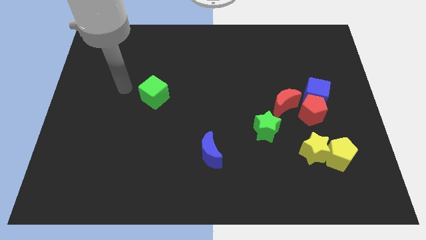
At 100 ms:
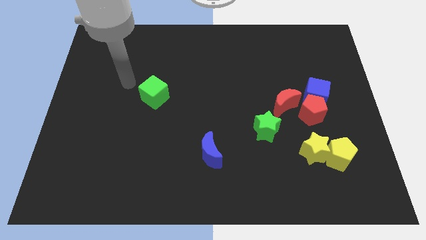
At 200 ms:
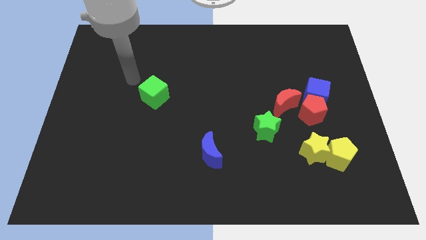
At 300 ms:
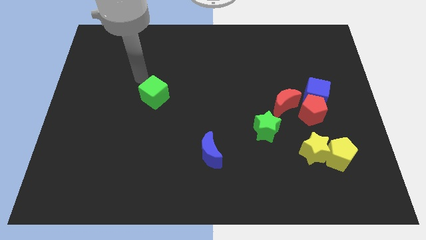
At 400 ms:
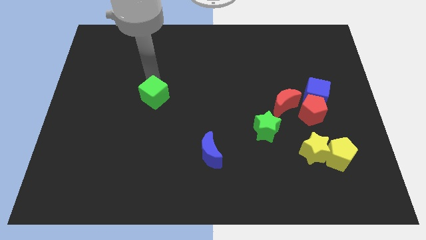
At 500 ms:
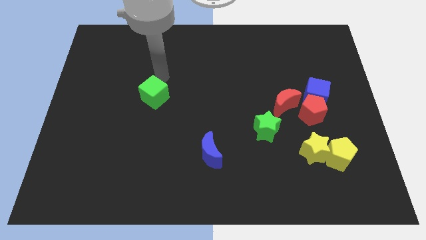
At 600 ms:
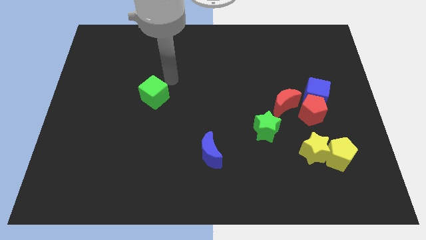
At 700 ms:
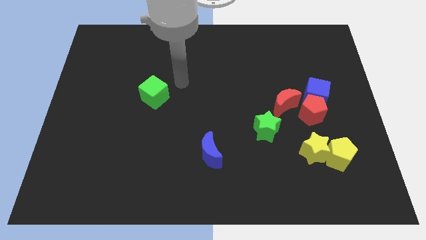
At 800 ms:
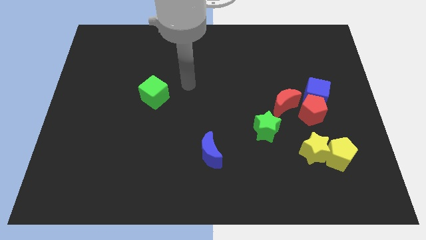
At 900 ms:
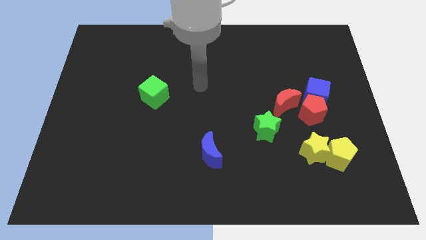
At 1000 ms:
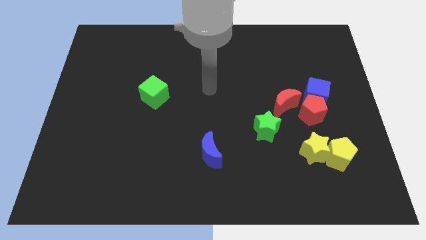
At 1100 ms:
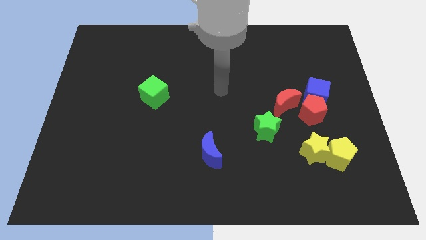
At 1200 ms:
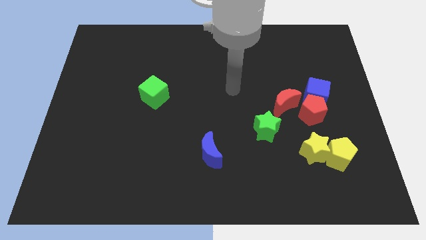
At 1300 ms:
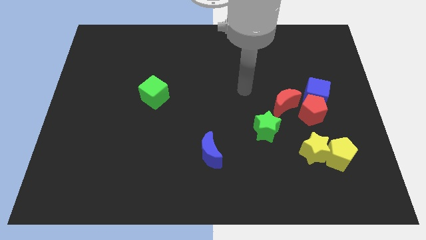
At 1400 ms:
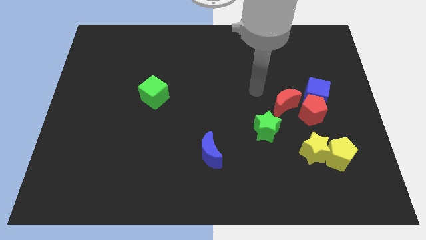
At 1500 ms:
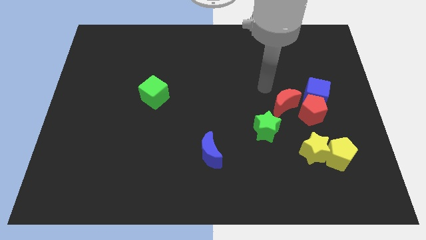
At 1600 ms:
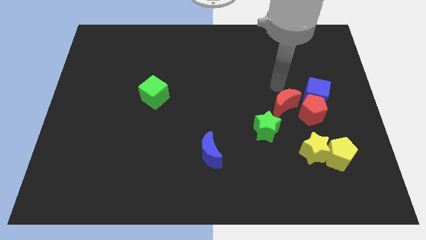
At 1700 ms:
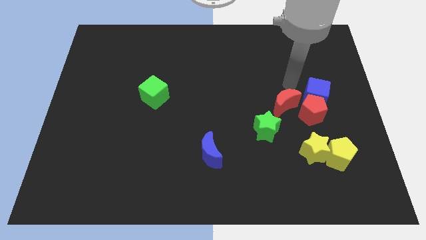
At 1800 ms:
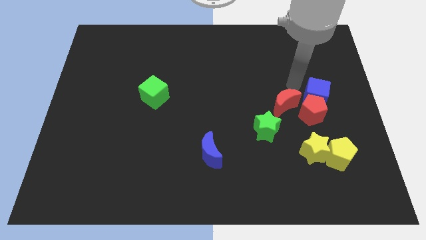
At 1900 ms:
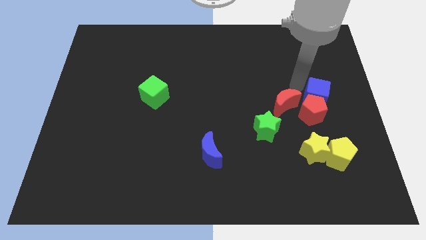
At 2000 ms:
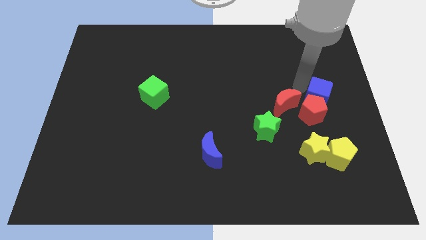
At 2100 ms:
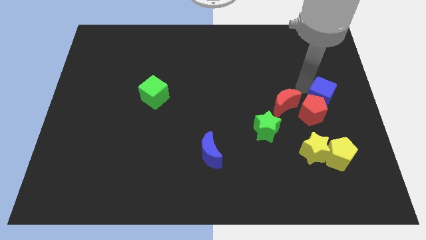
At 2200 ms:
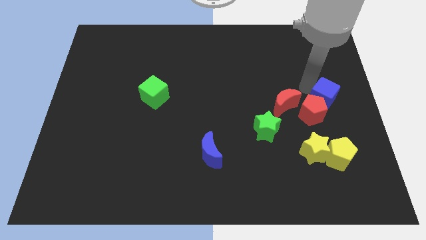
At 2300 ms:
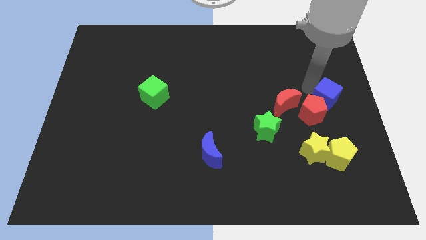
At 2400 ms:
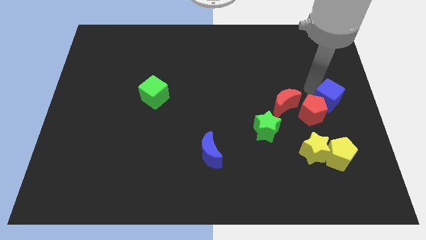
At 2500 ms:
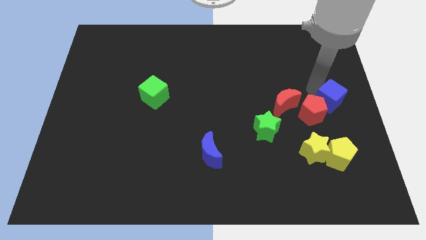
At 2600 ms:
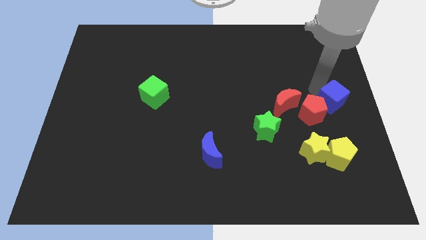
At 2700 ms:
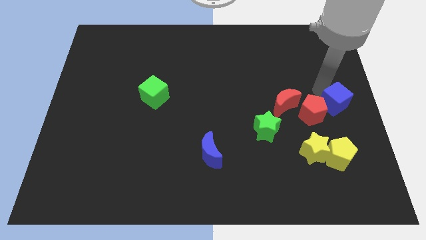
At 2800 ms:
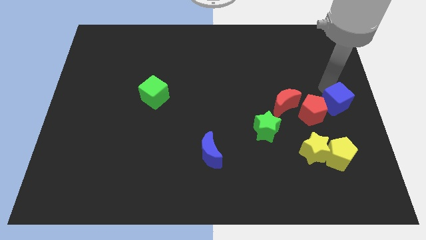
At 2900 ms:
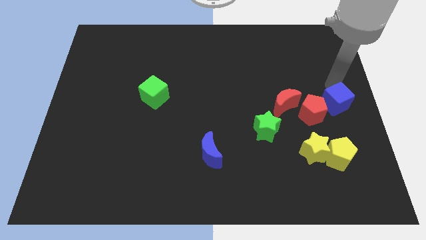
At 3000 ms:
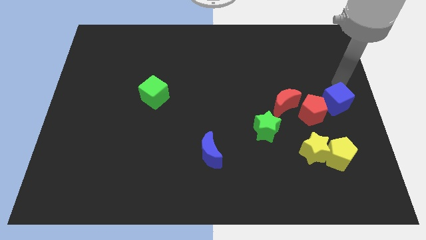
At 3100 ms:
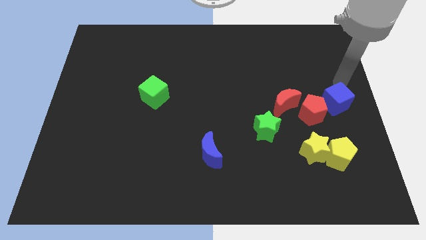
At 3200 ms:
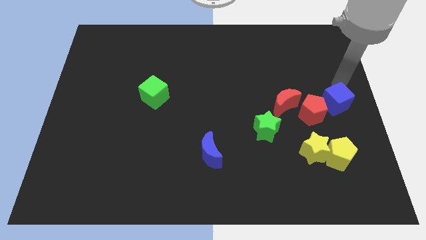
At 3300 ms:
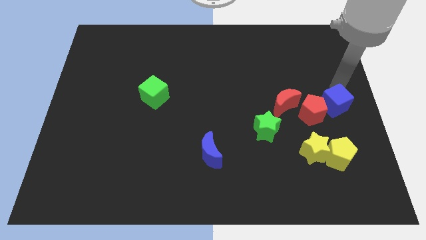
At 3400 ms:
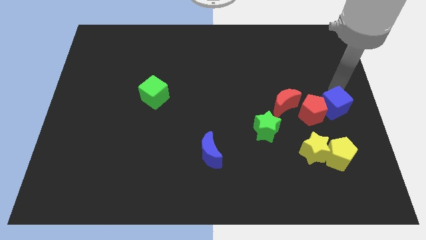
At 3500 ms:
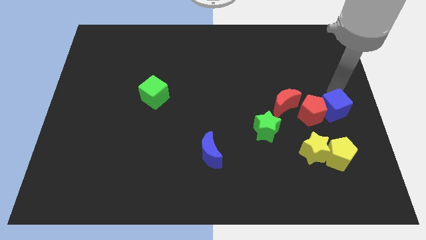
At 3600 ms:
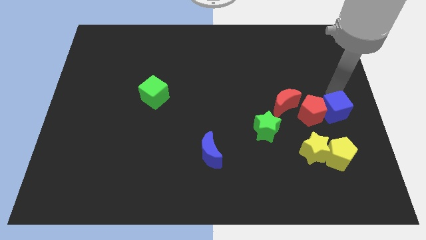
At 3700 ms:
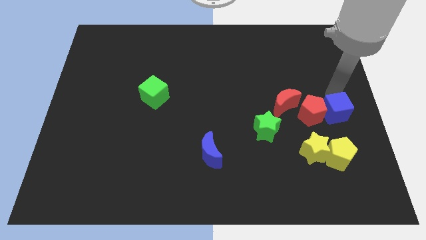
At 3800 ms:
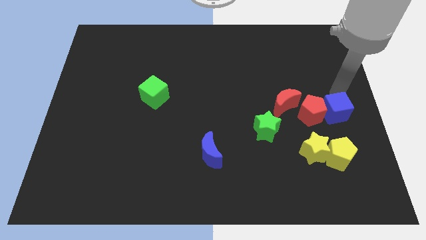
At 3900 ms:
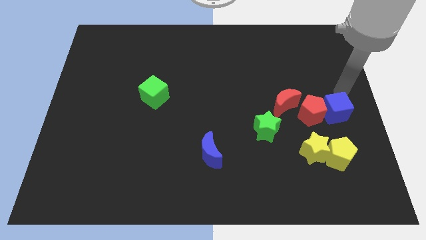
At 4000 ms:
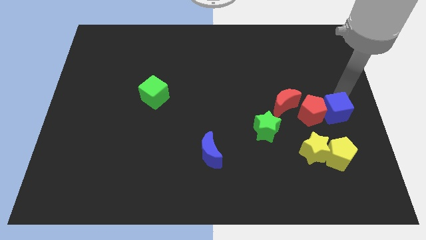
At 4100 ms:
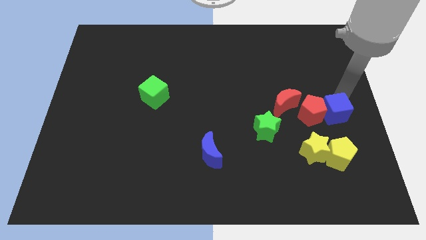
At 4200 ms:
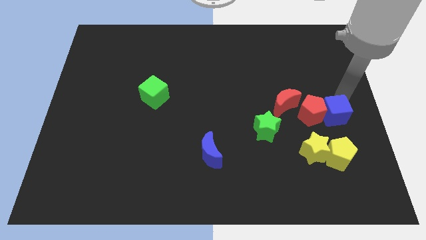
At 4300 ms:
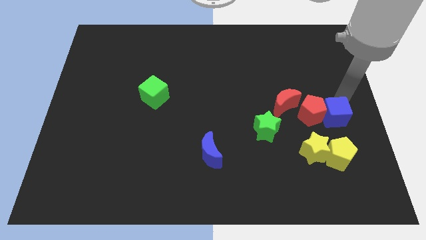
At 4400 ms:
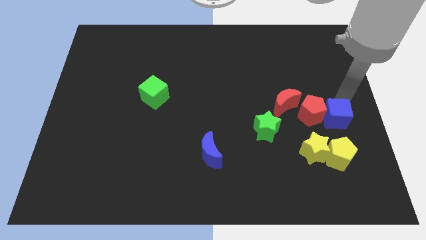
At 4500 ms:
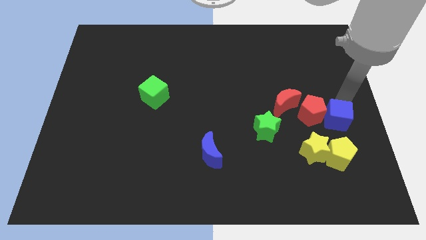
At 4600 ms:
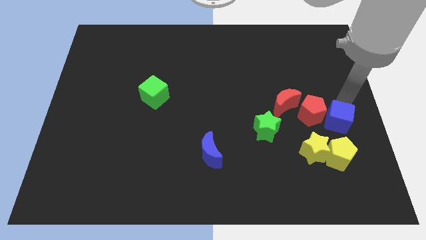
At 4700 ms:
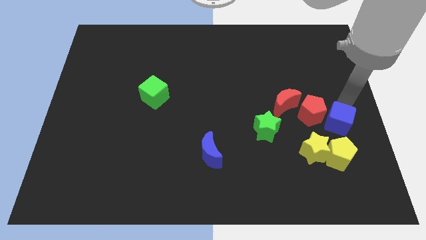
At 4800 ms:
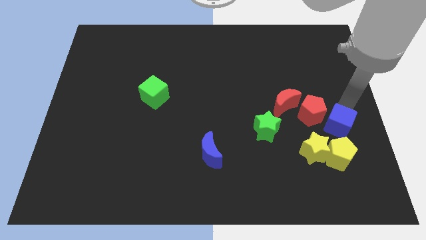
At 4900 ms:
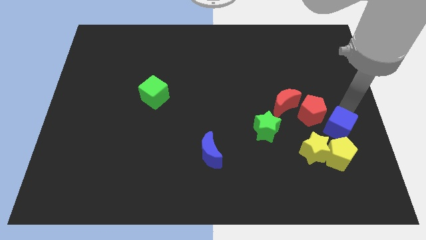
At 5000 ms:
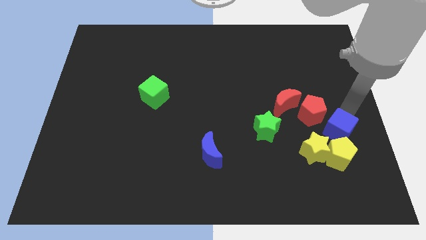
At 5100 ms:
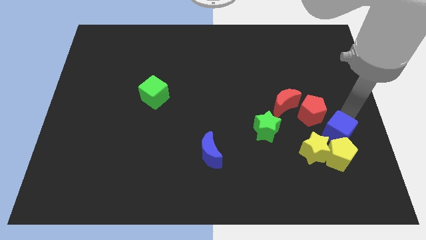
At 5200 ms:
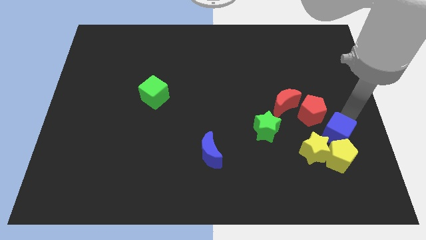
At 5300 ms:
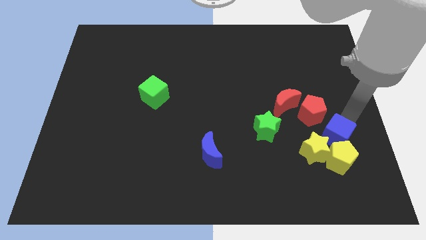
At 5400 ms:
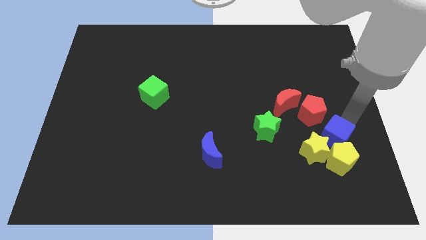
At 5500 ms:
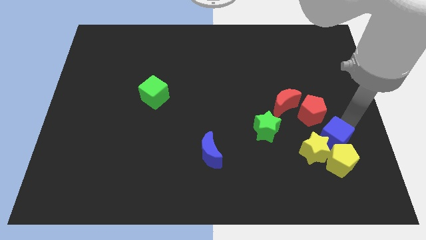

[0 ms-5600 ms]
slide the blue cube next to the yellow star

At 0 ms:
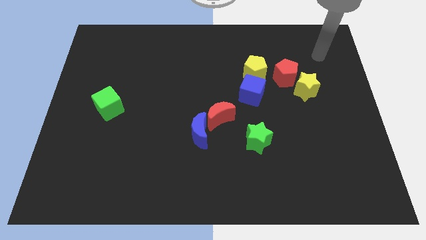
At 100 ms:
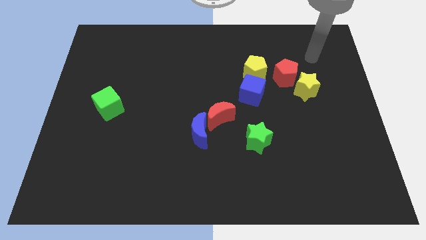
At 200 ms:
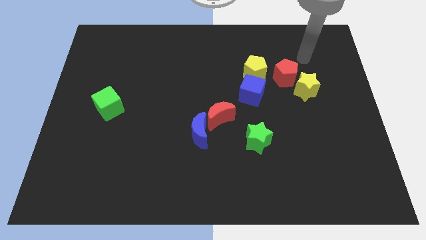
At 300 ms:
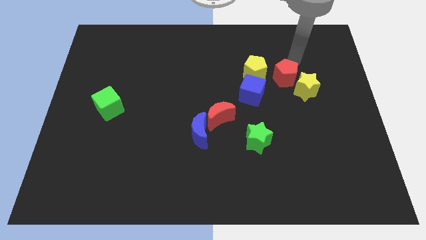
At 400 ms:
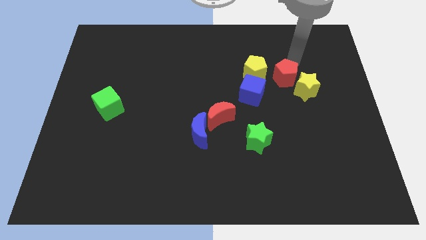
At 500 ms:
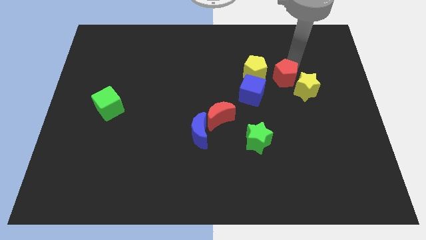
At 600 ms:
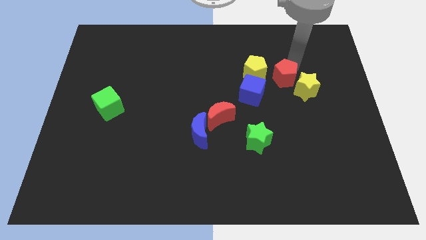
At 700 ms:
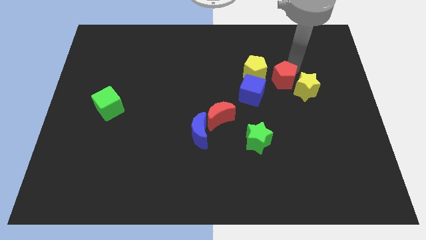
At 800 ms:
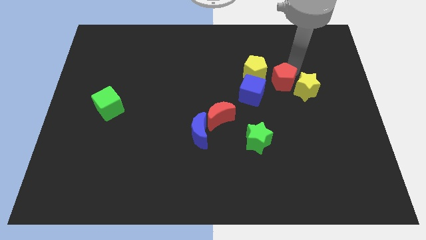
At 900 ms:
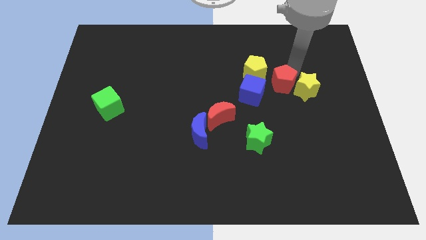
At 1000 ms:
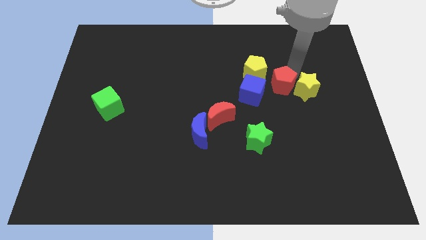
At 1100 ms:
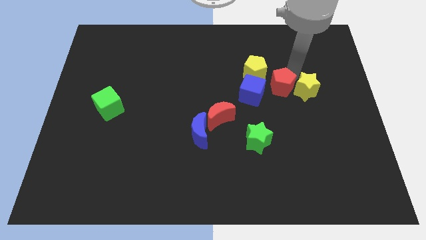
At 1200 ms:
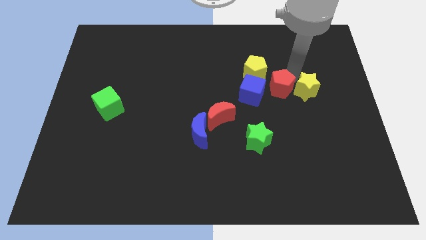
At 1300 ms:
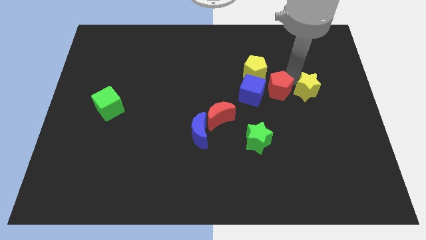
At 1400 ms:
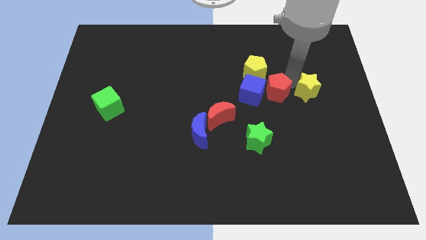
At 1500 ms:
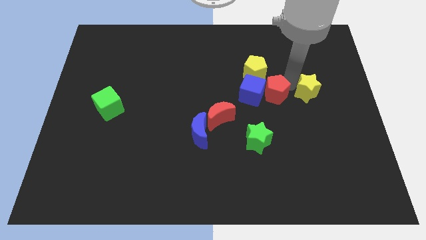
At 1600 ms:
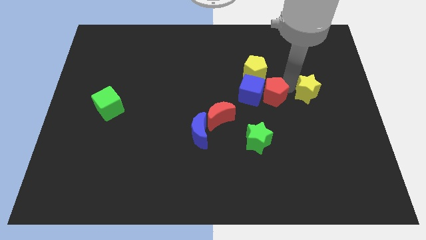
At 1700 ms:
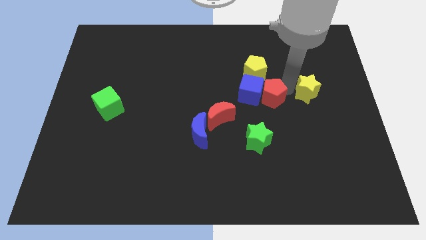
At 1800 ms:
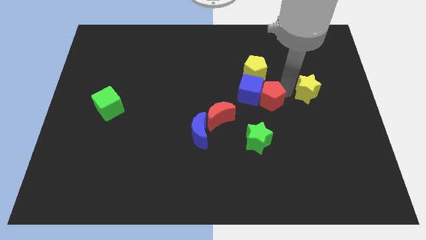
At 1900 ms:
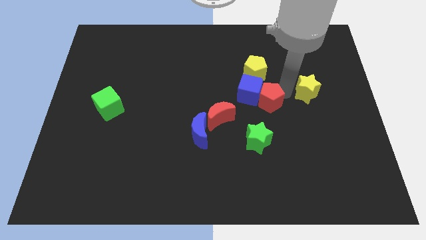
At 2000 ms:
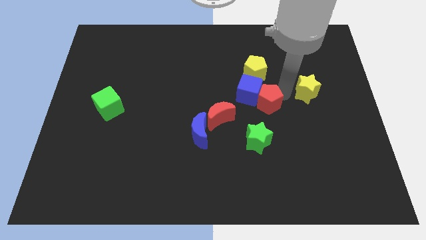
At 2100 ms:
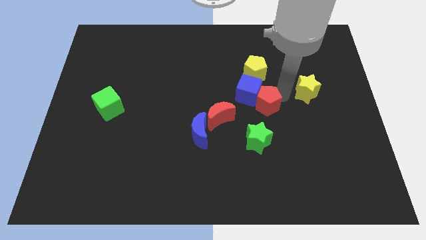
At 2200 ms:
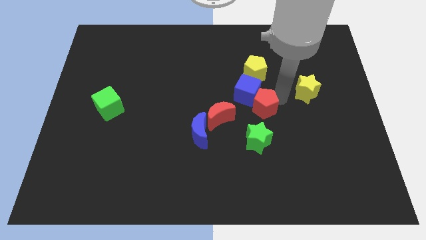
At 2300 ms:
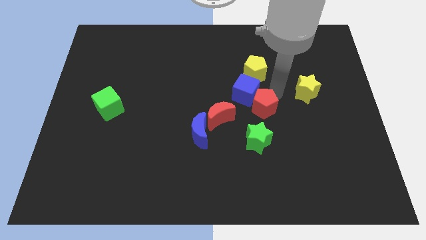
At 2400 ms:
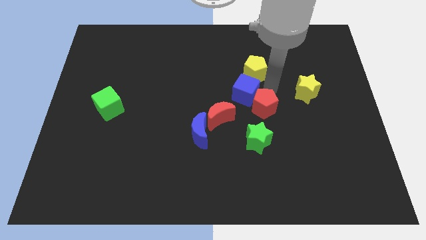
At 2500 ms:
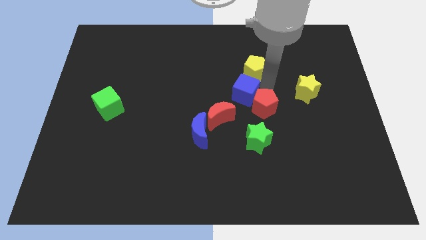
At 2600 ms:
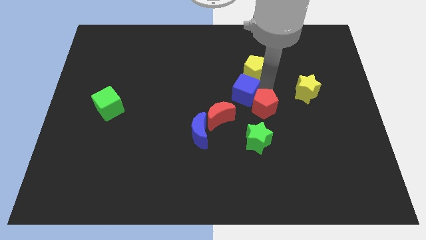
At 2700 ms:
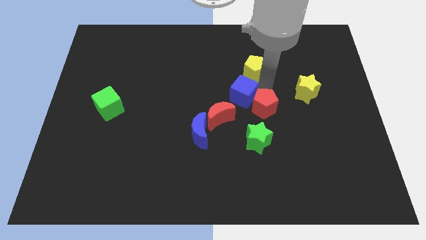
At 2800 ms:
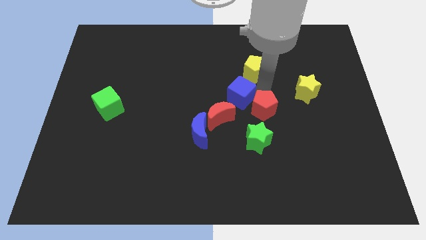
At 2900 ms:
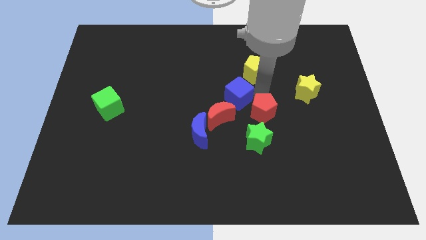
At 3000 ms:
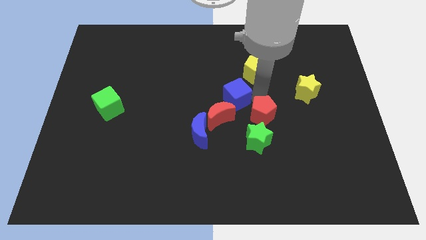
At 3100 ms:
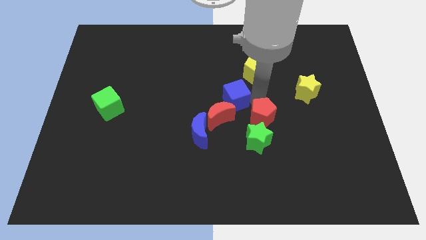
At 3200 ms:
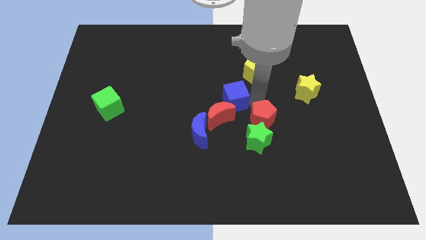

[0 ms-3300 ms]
slide the red pentagon next to the green star
